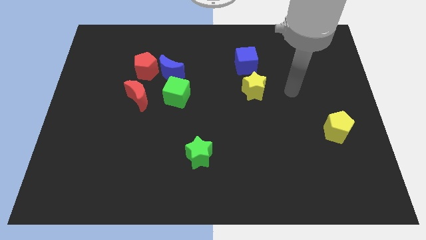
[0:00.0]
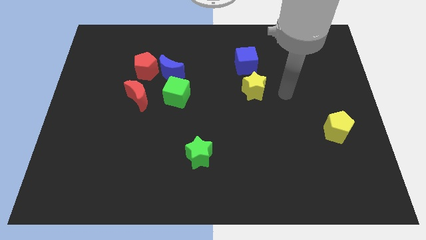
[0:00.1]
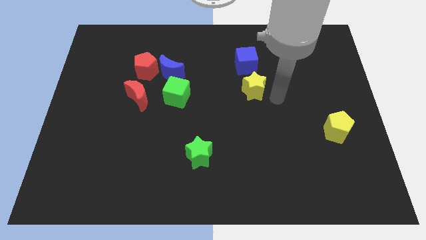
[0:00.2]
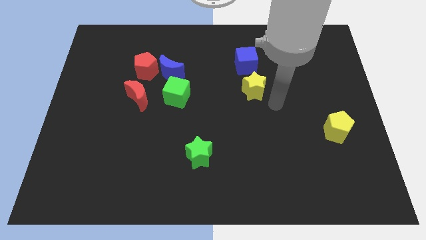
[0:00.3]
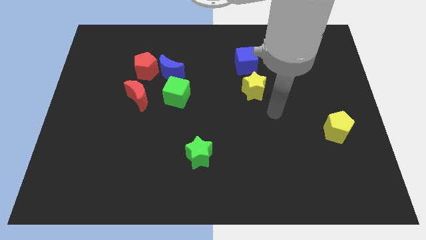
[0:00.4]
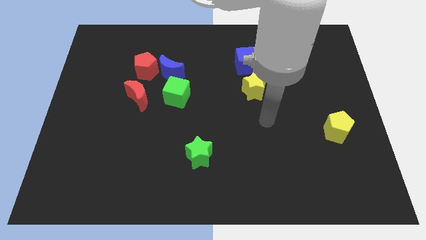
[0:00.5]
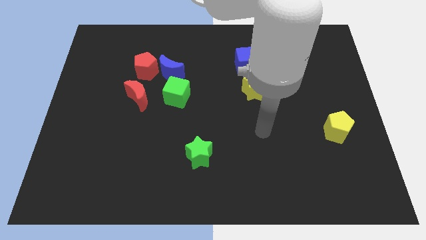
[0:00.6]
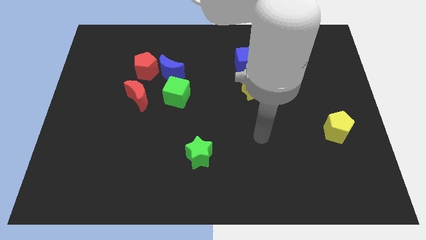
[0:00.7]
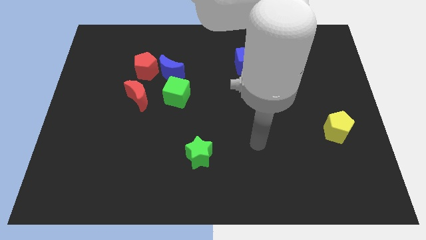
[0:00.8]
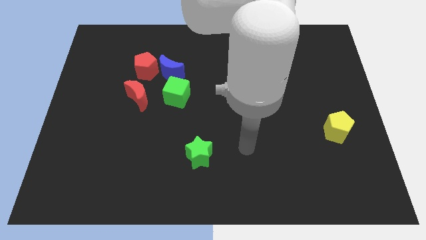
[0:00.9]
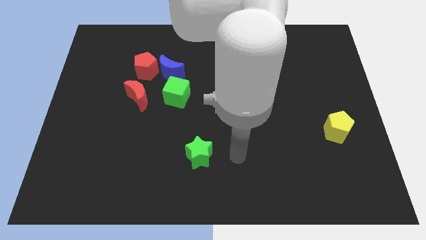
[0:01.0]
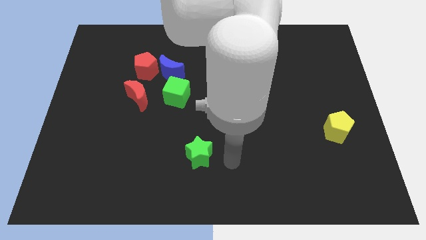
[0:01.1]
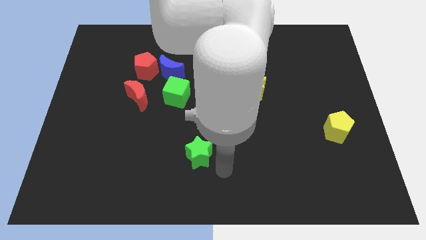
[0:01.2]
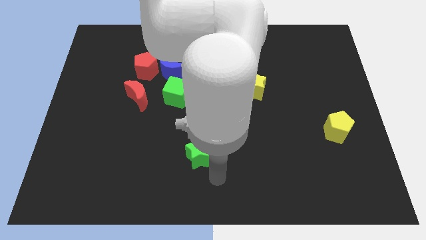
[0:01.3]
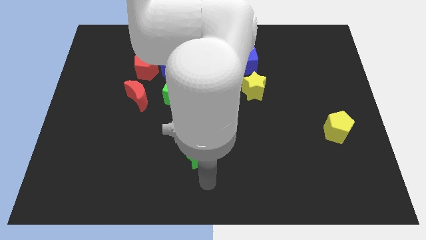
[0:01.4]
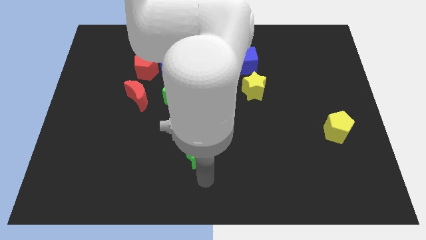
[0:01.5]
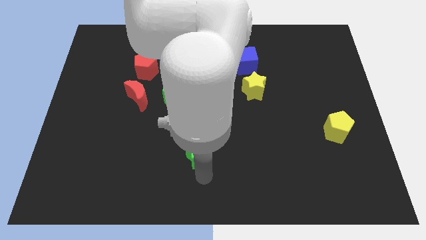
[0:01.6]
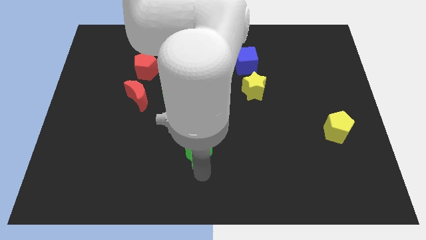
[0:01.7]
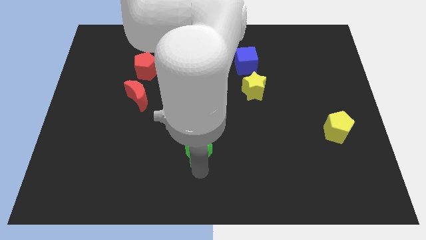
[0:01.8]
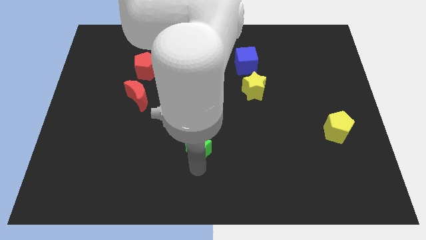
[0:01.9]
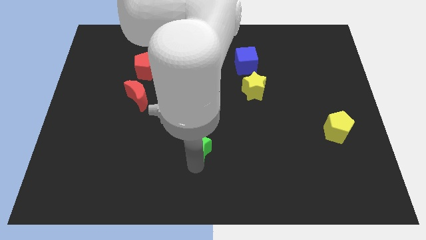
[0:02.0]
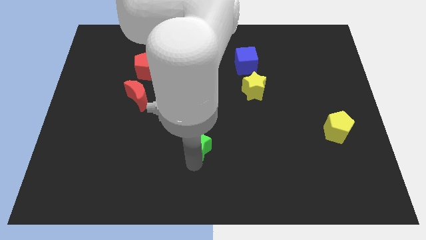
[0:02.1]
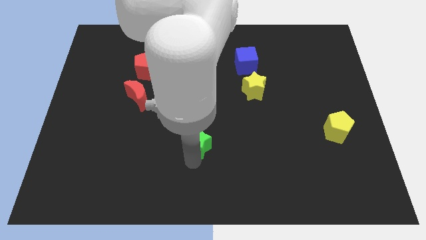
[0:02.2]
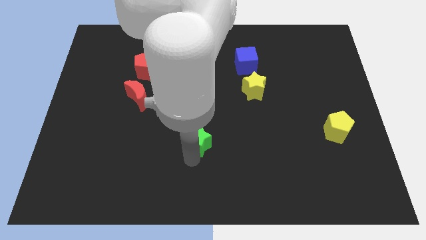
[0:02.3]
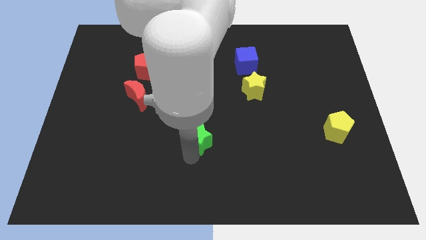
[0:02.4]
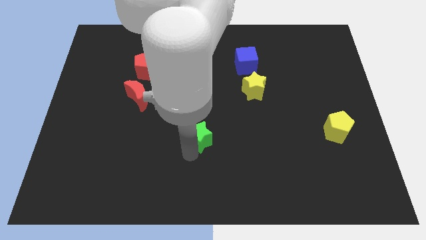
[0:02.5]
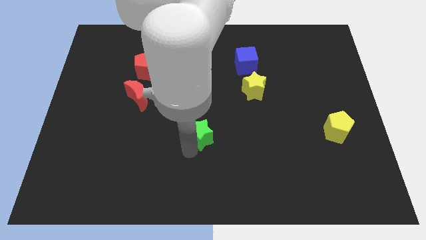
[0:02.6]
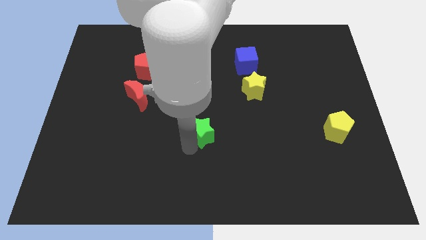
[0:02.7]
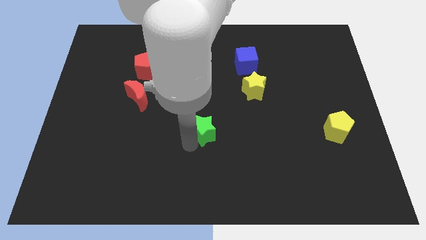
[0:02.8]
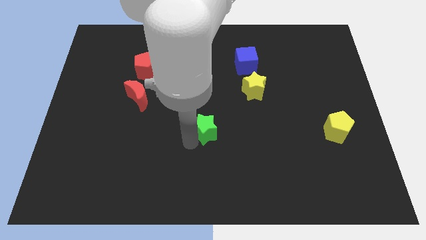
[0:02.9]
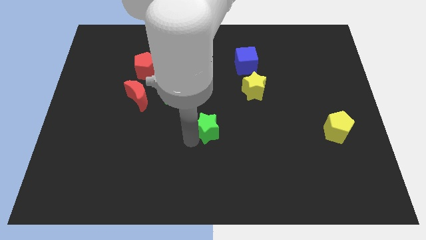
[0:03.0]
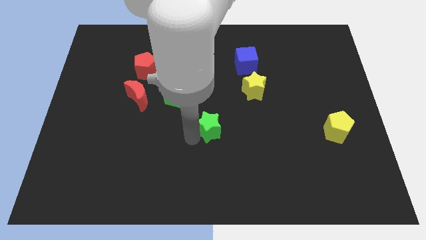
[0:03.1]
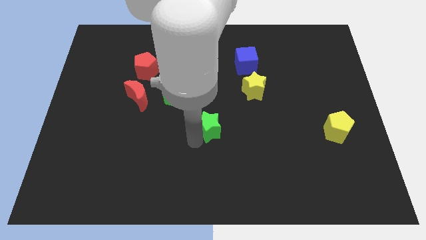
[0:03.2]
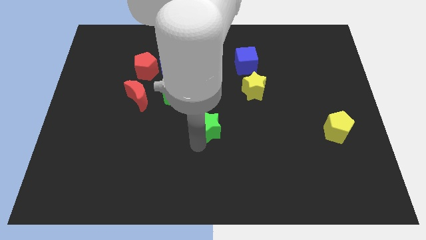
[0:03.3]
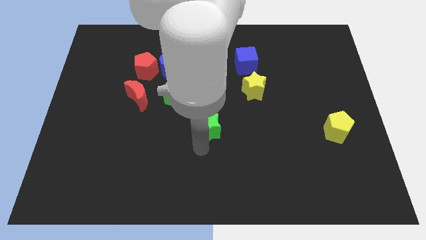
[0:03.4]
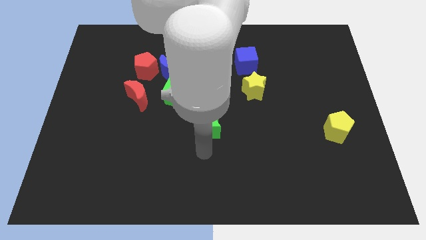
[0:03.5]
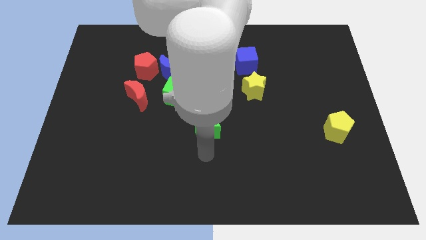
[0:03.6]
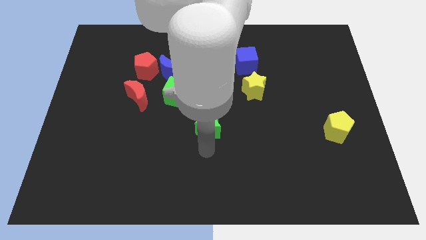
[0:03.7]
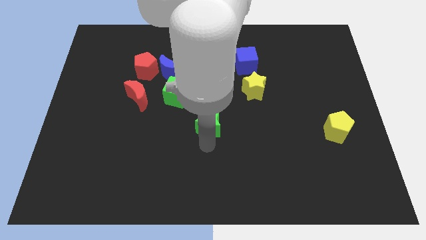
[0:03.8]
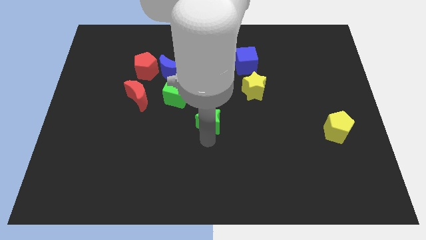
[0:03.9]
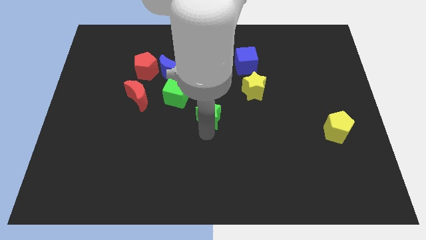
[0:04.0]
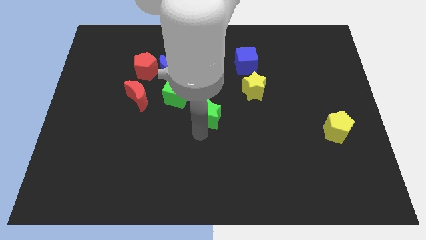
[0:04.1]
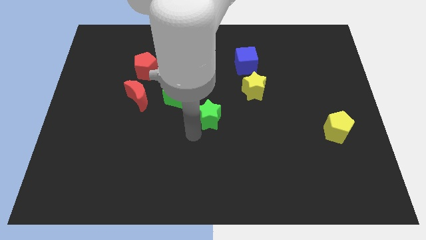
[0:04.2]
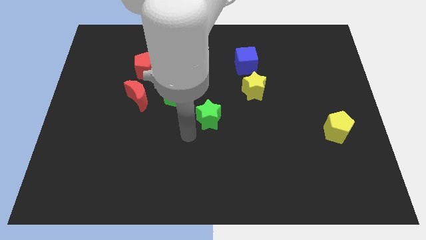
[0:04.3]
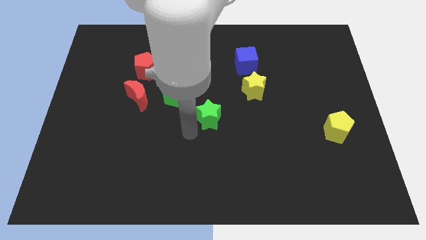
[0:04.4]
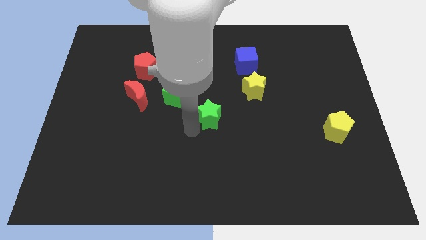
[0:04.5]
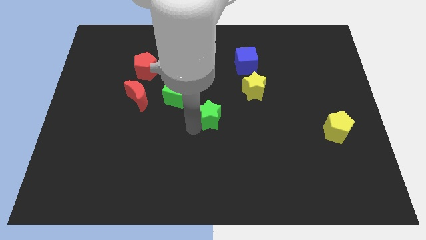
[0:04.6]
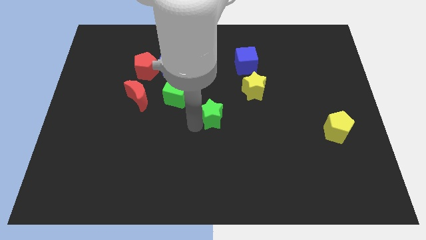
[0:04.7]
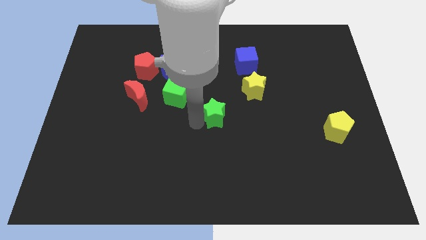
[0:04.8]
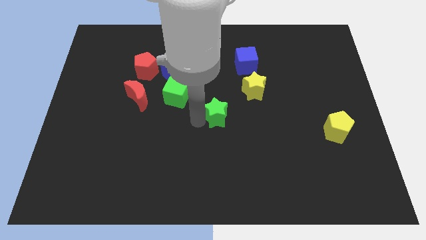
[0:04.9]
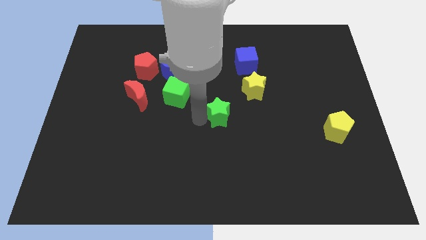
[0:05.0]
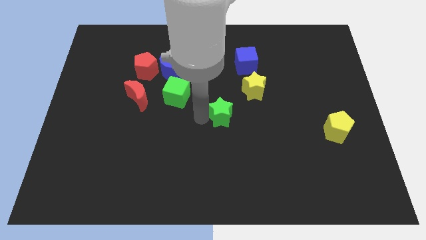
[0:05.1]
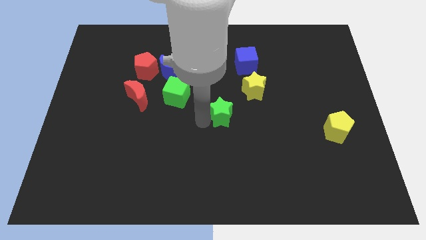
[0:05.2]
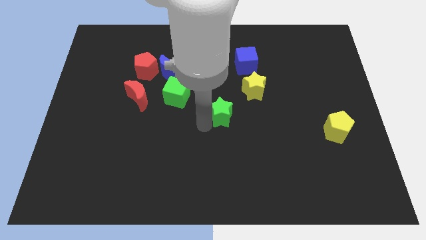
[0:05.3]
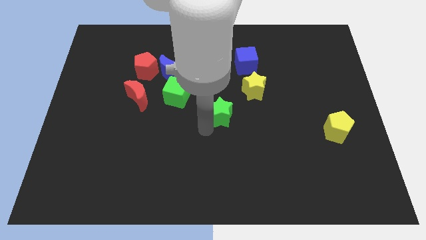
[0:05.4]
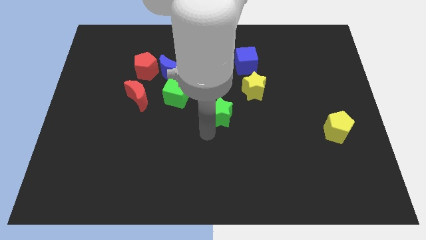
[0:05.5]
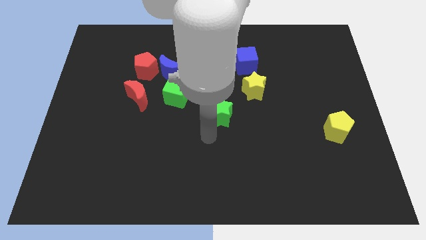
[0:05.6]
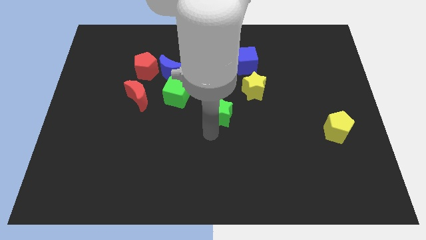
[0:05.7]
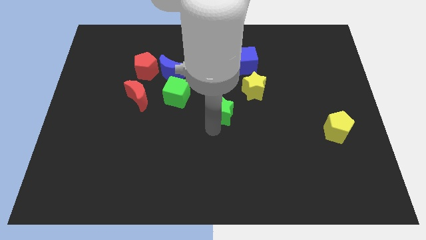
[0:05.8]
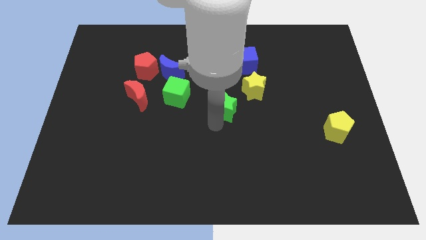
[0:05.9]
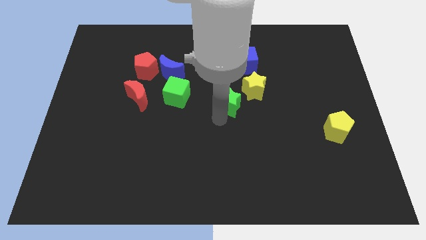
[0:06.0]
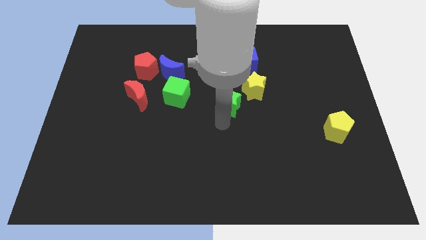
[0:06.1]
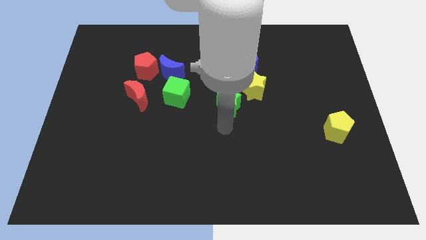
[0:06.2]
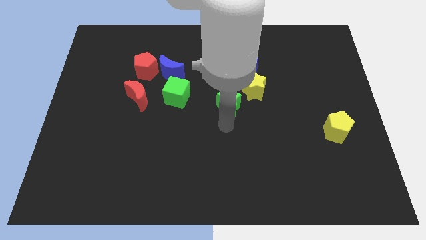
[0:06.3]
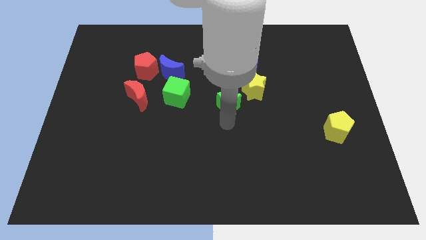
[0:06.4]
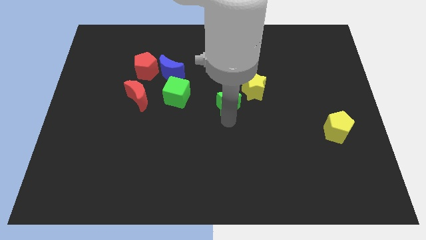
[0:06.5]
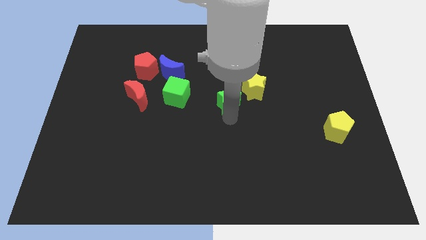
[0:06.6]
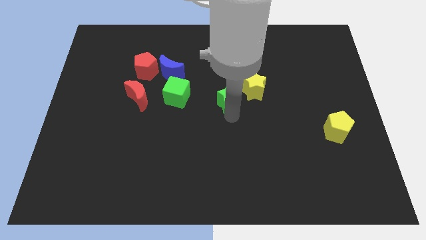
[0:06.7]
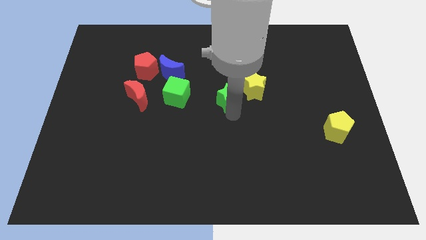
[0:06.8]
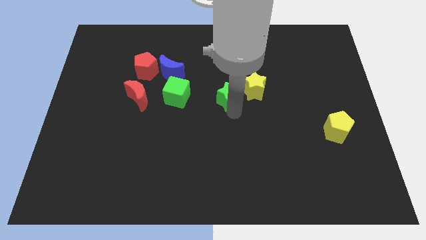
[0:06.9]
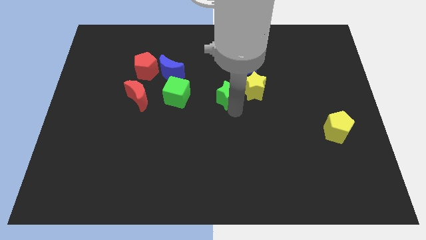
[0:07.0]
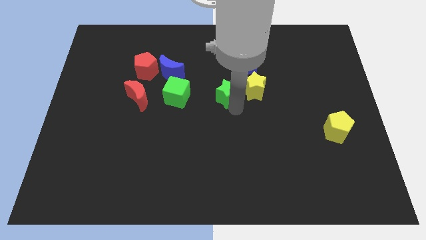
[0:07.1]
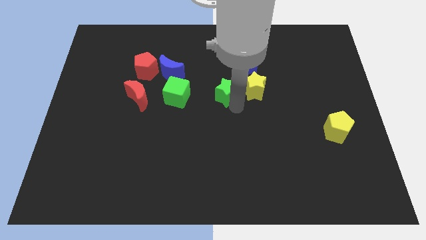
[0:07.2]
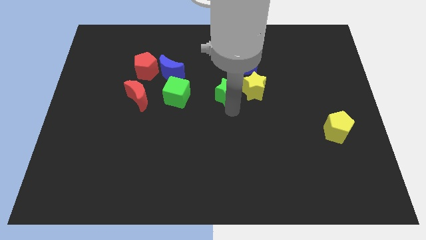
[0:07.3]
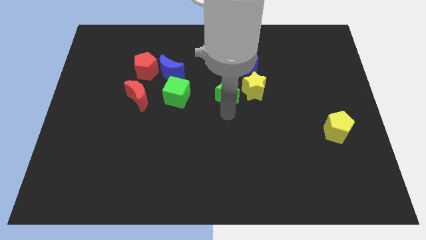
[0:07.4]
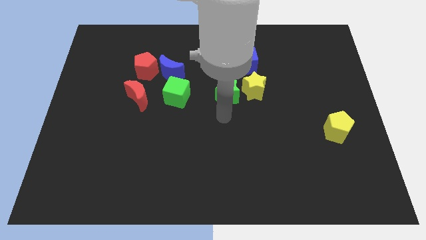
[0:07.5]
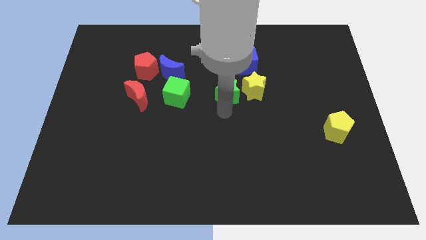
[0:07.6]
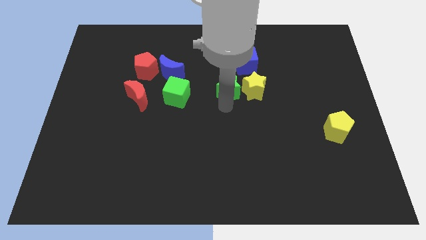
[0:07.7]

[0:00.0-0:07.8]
put the green star to the top left of the yellow star
